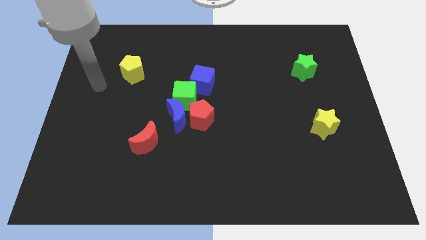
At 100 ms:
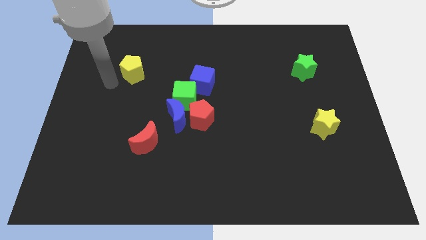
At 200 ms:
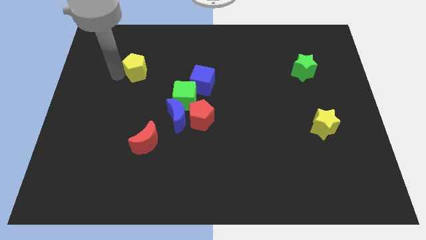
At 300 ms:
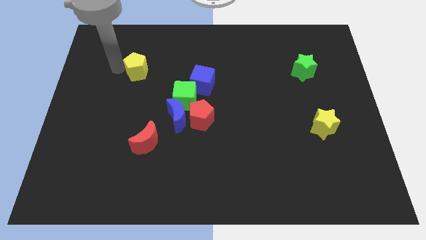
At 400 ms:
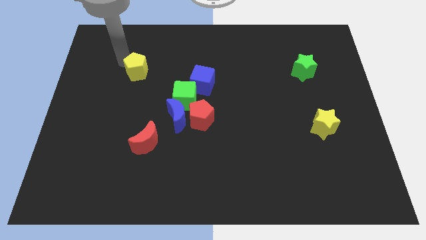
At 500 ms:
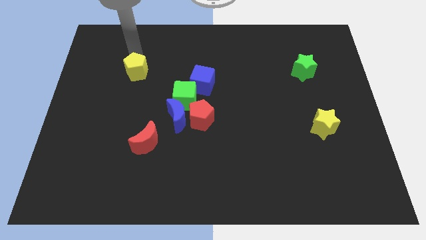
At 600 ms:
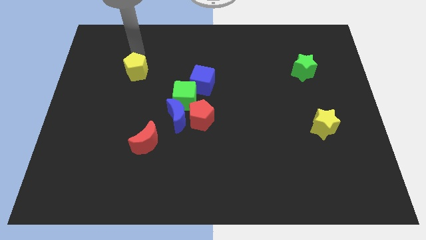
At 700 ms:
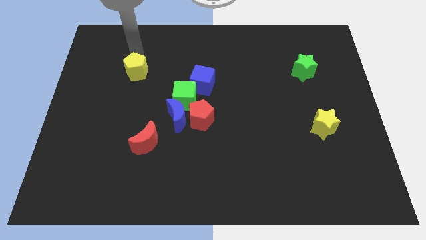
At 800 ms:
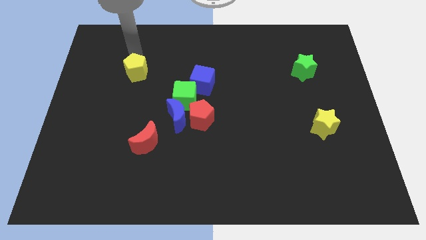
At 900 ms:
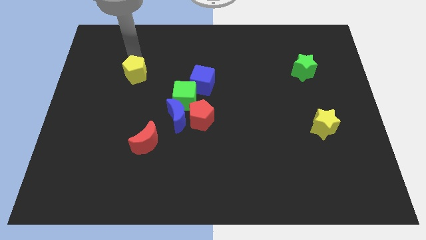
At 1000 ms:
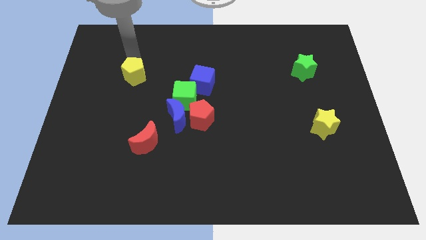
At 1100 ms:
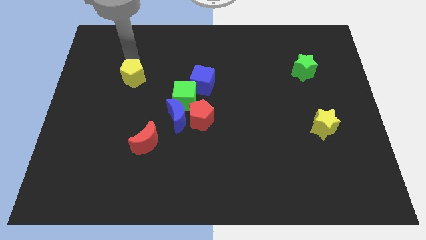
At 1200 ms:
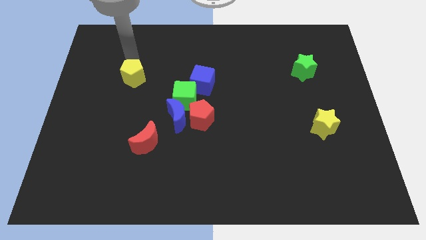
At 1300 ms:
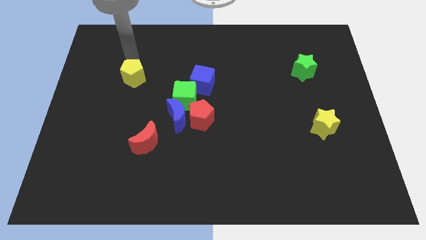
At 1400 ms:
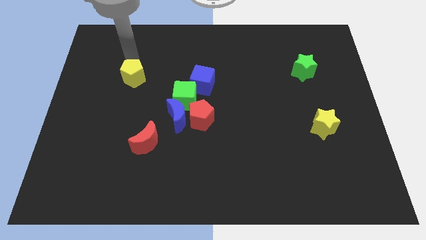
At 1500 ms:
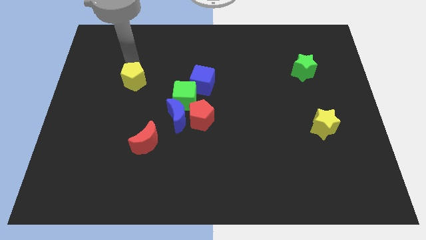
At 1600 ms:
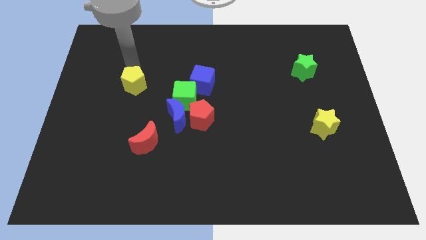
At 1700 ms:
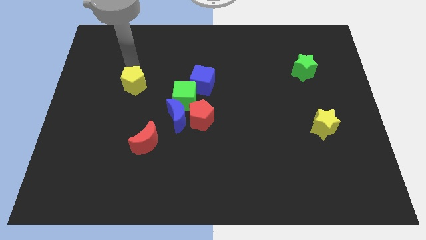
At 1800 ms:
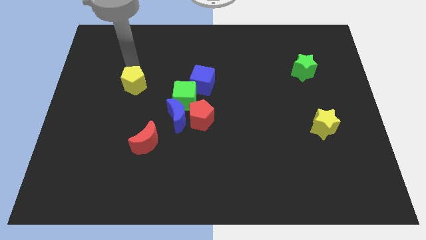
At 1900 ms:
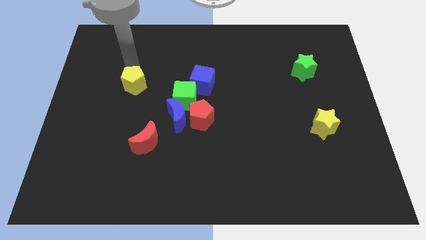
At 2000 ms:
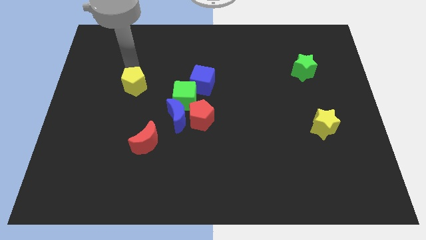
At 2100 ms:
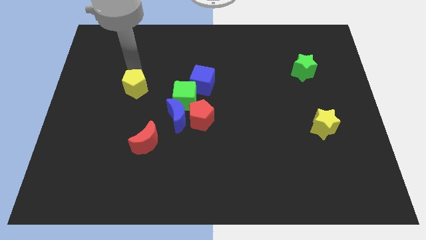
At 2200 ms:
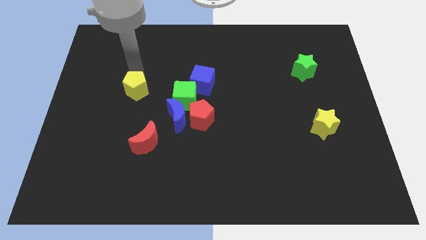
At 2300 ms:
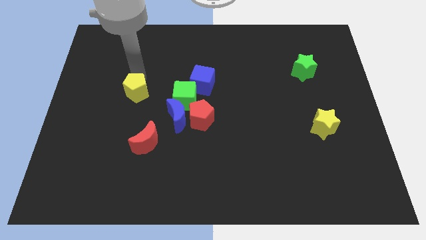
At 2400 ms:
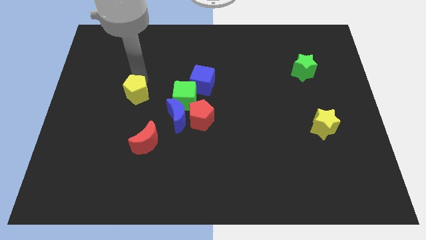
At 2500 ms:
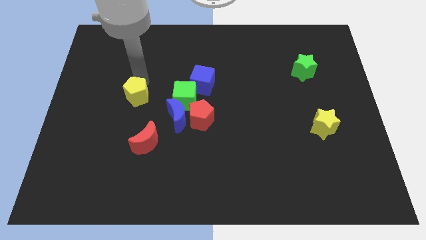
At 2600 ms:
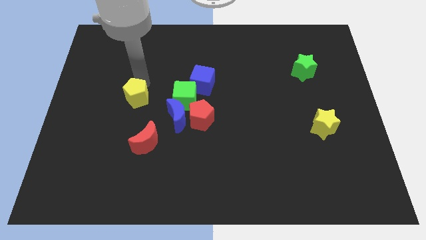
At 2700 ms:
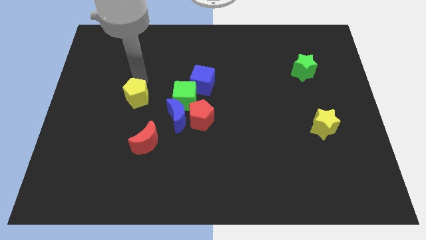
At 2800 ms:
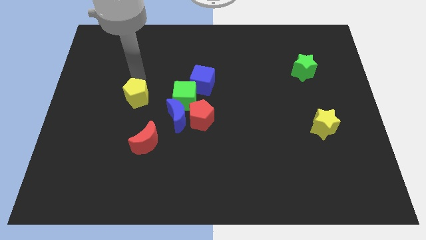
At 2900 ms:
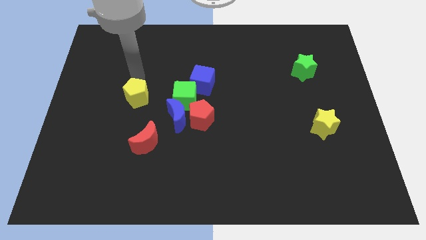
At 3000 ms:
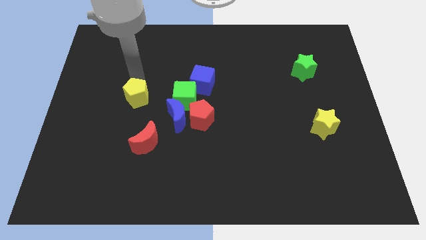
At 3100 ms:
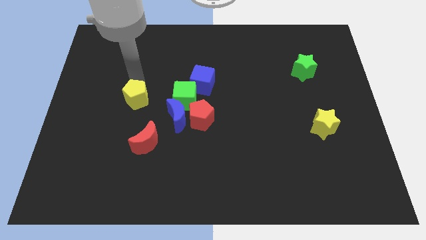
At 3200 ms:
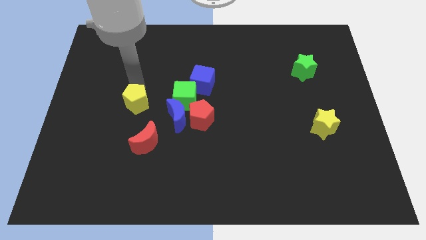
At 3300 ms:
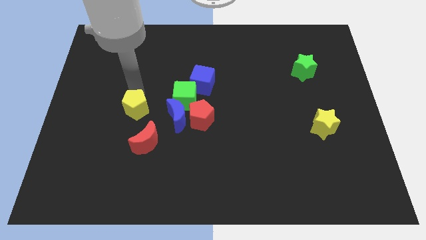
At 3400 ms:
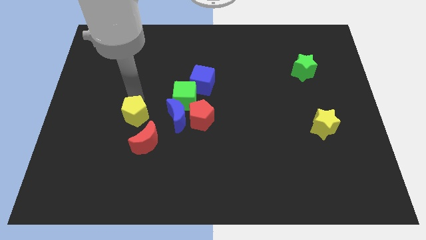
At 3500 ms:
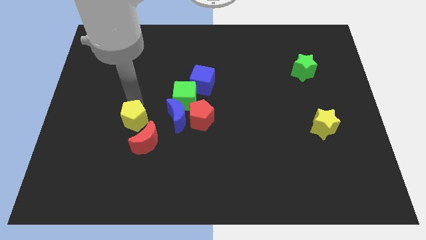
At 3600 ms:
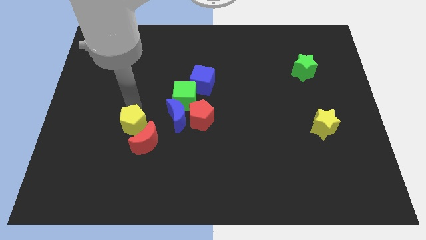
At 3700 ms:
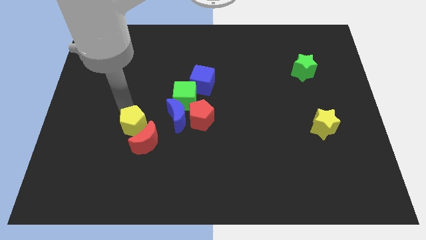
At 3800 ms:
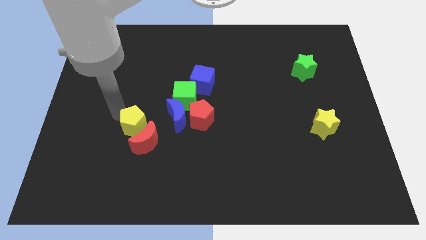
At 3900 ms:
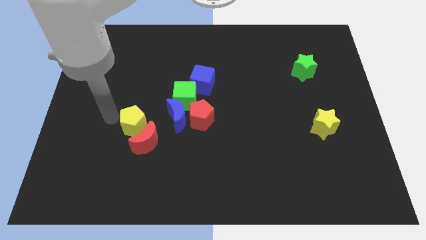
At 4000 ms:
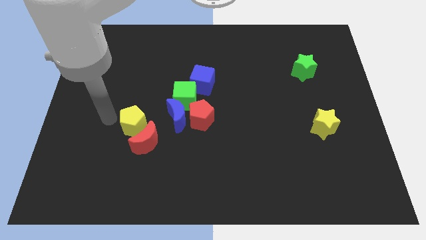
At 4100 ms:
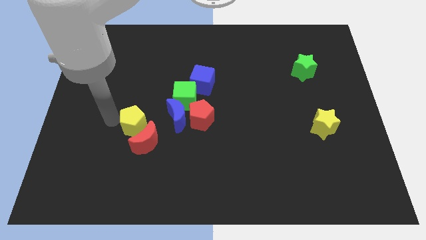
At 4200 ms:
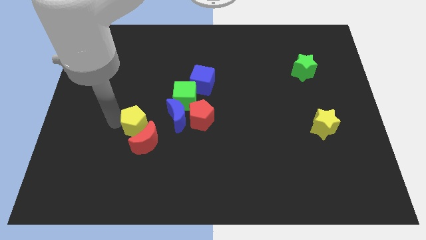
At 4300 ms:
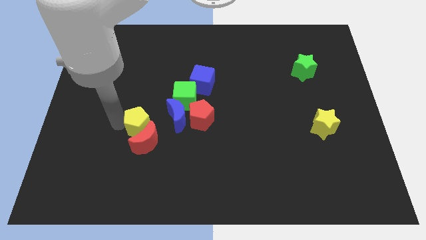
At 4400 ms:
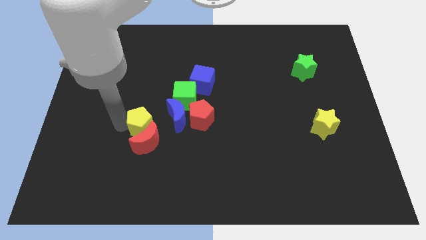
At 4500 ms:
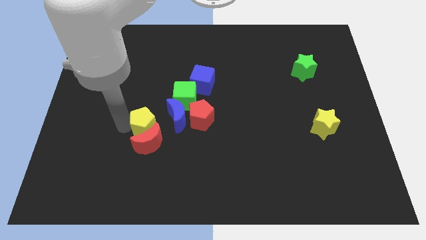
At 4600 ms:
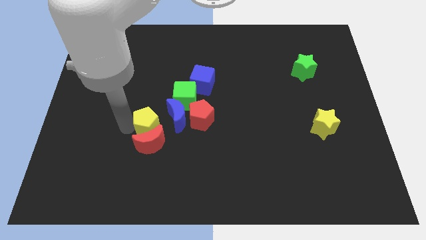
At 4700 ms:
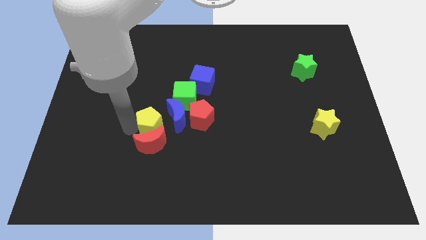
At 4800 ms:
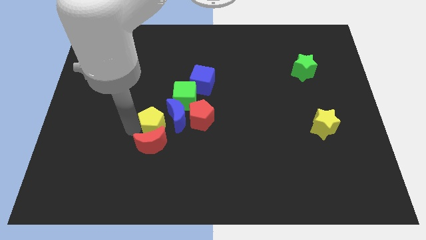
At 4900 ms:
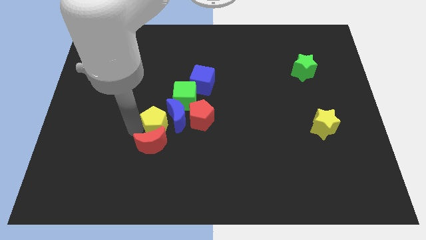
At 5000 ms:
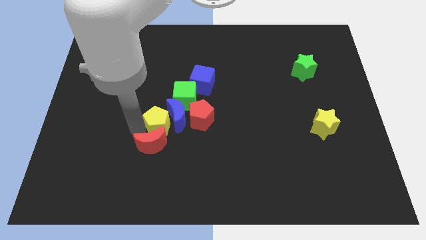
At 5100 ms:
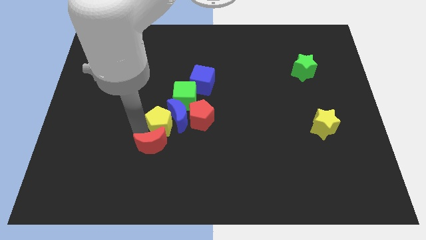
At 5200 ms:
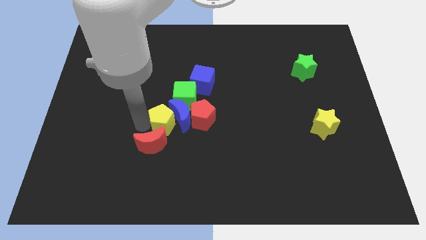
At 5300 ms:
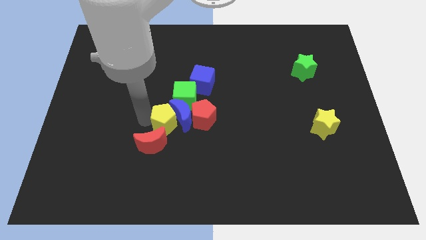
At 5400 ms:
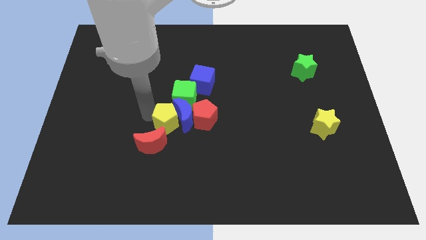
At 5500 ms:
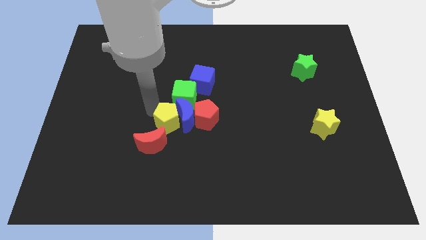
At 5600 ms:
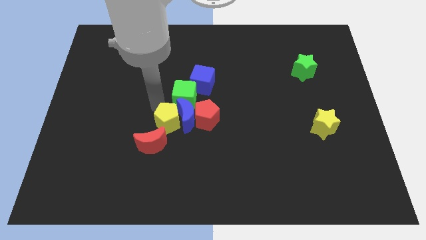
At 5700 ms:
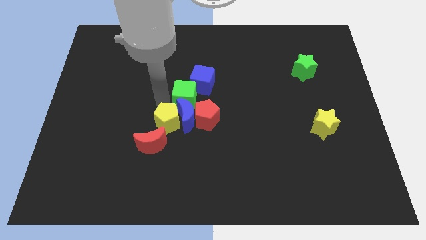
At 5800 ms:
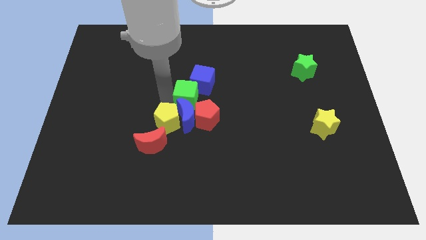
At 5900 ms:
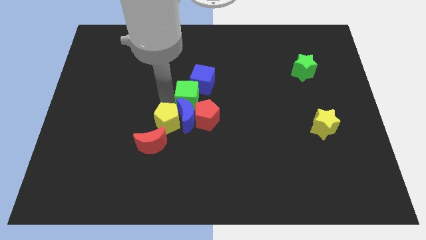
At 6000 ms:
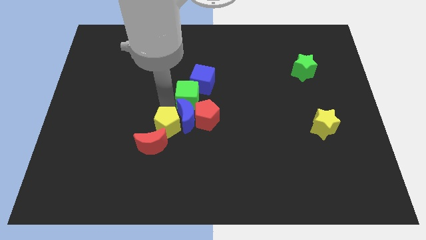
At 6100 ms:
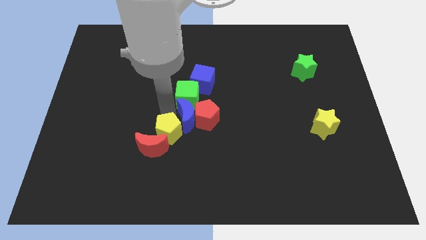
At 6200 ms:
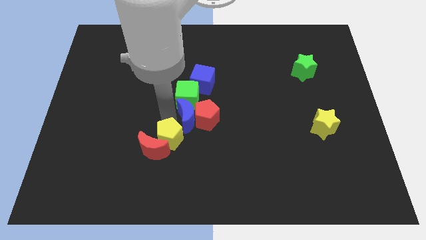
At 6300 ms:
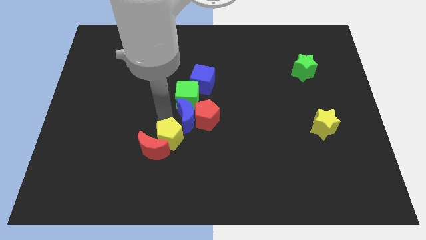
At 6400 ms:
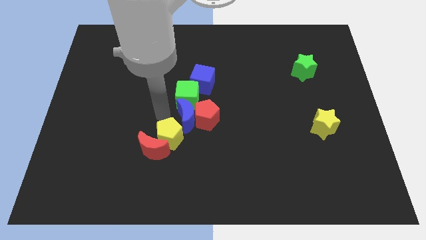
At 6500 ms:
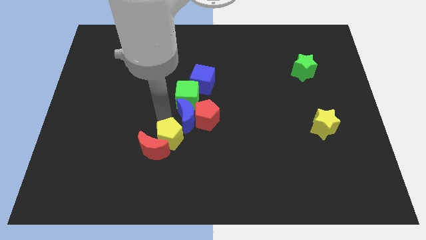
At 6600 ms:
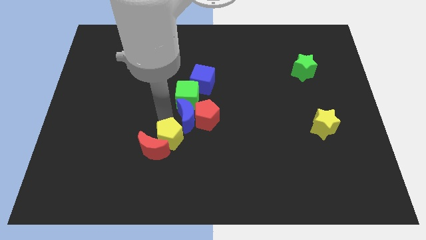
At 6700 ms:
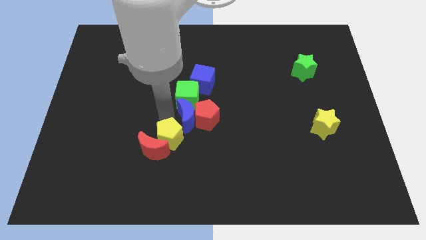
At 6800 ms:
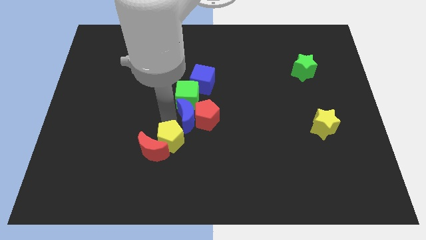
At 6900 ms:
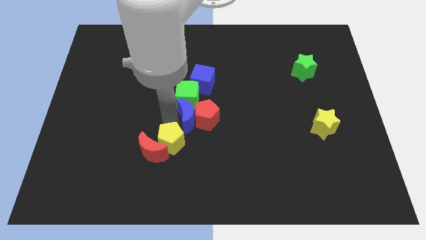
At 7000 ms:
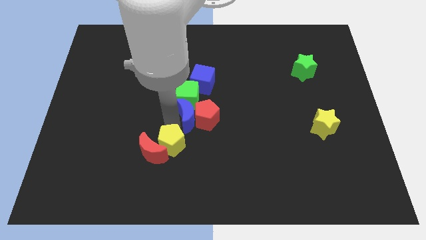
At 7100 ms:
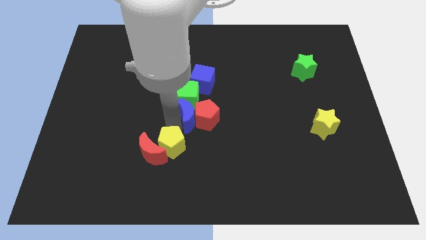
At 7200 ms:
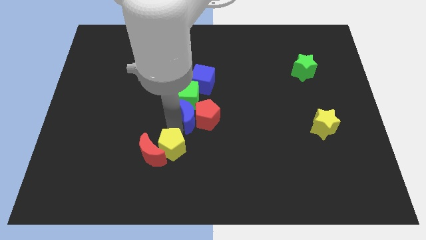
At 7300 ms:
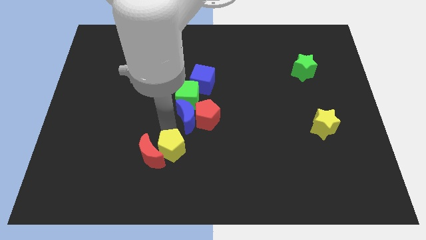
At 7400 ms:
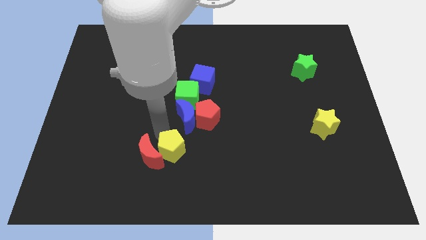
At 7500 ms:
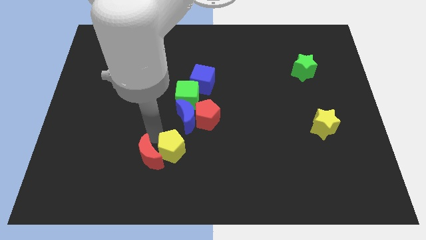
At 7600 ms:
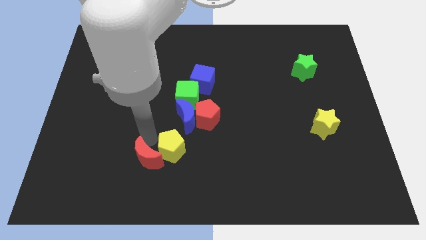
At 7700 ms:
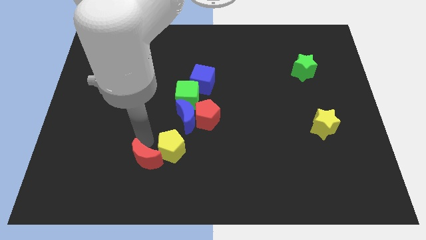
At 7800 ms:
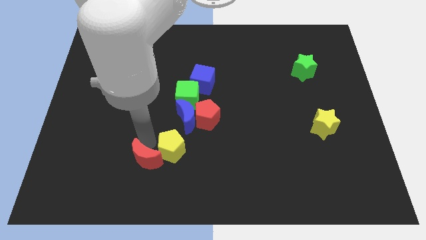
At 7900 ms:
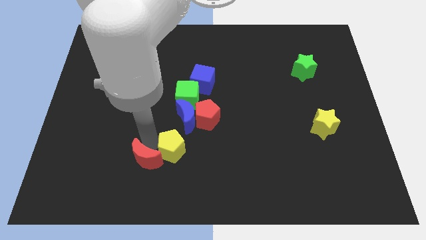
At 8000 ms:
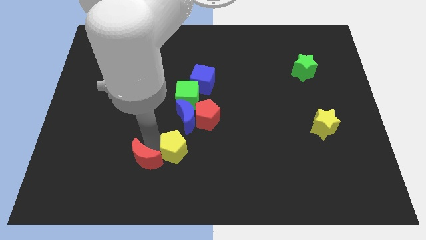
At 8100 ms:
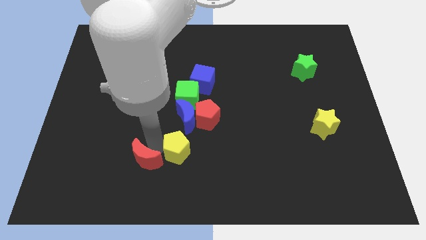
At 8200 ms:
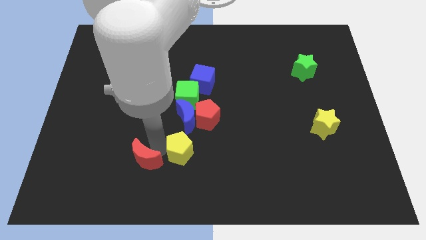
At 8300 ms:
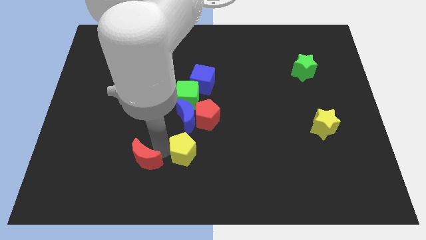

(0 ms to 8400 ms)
move the yellow pentagon to the bottom side of the red pentagon
